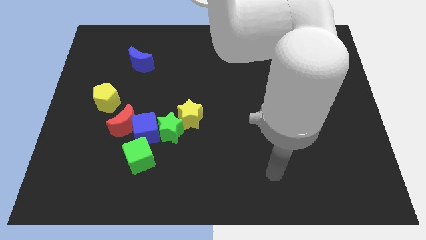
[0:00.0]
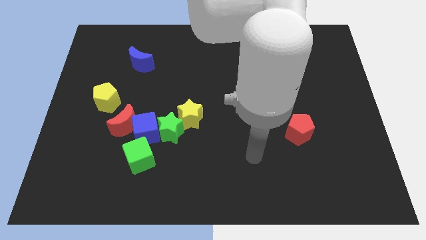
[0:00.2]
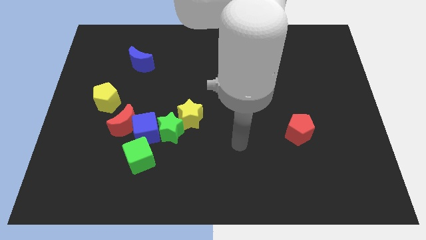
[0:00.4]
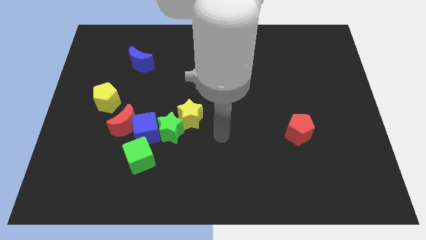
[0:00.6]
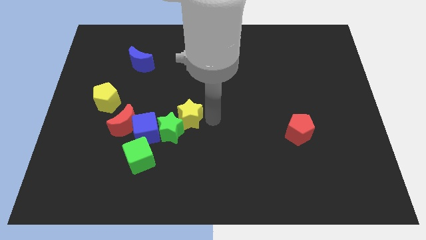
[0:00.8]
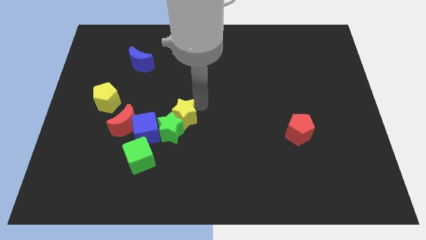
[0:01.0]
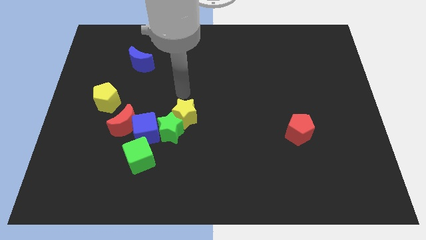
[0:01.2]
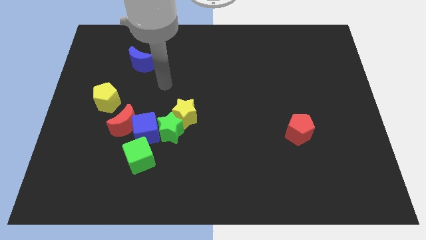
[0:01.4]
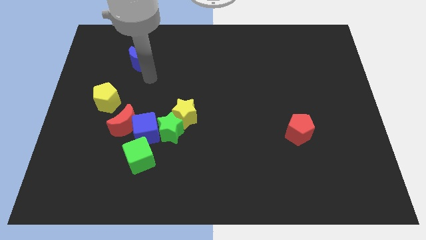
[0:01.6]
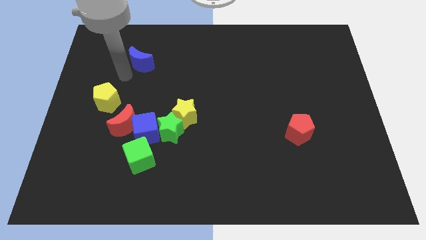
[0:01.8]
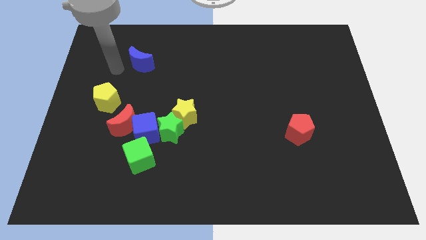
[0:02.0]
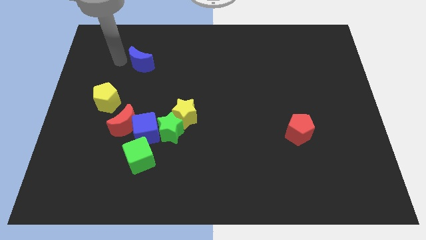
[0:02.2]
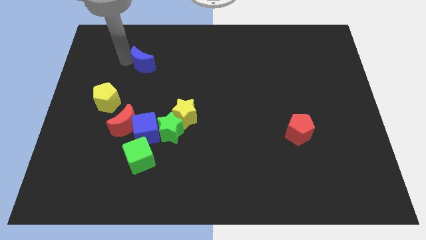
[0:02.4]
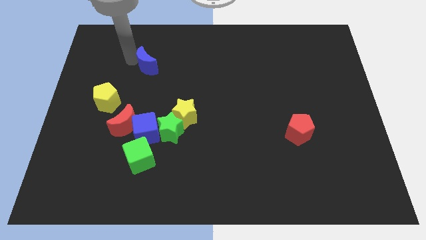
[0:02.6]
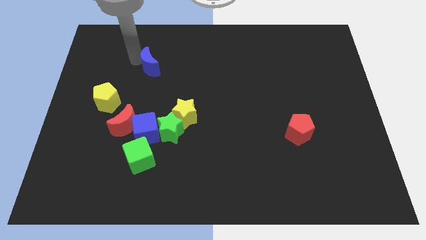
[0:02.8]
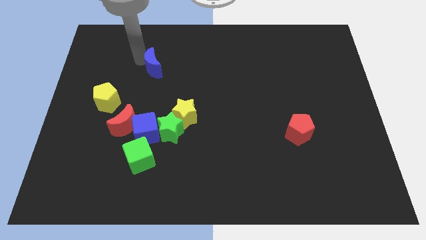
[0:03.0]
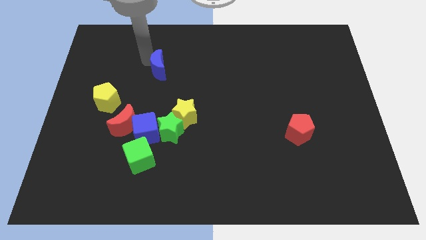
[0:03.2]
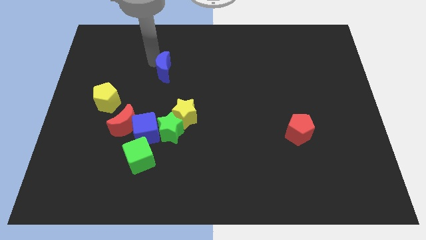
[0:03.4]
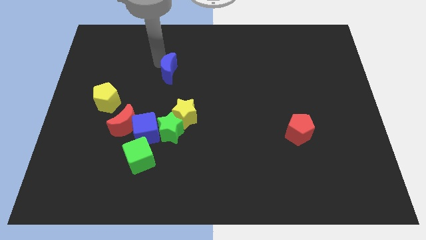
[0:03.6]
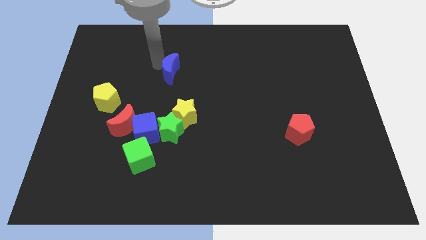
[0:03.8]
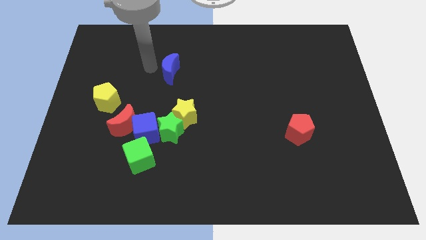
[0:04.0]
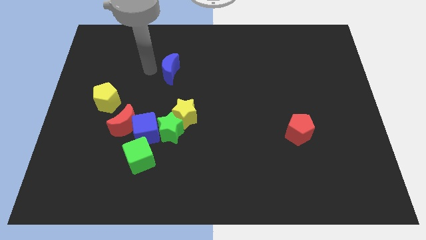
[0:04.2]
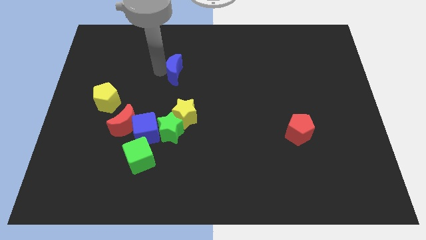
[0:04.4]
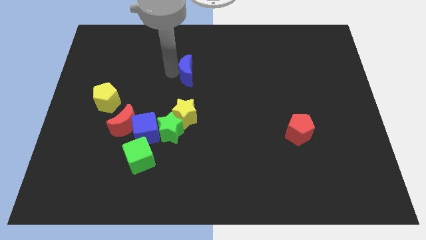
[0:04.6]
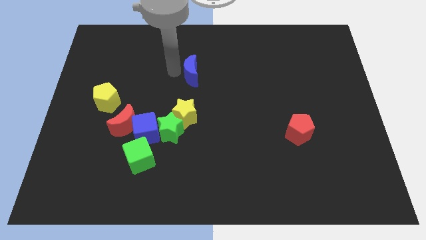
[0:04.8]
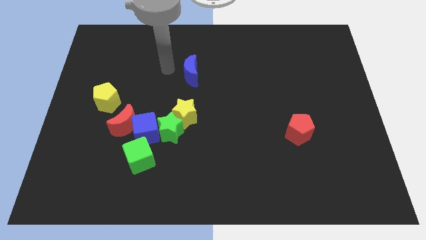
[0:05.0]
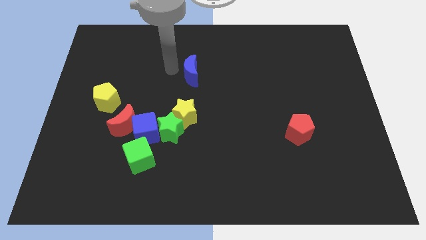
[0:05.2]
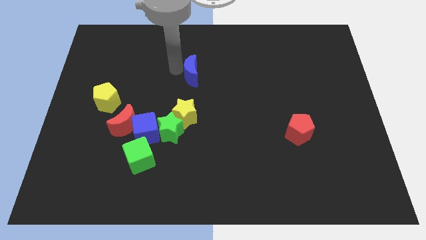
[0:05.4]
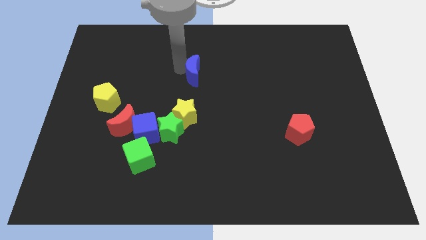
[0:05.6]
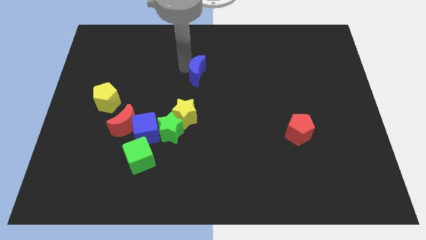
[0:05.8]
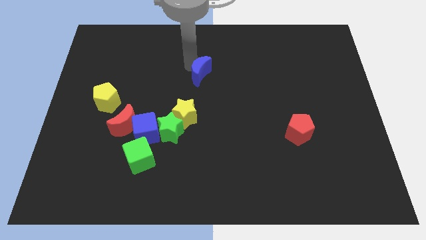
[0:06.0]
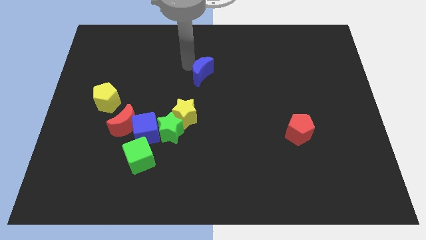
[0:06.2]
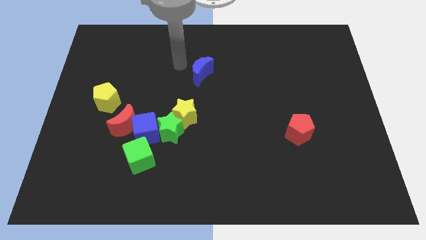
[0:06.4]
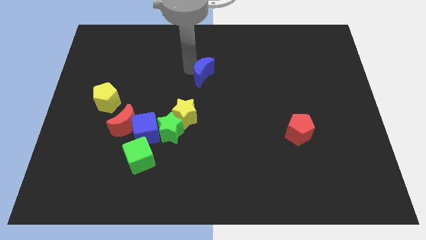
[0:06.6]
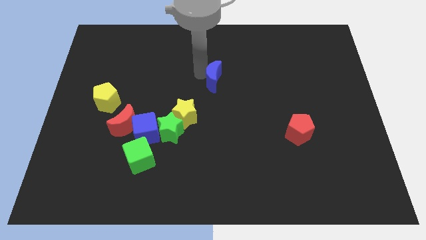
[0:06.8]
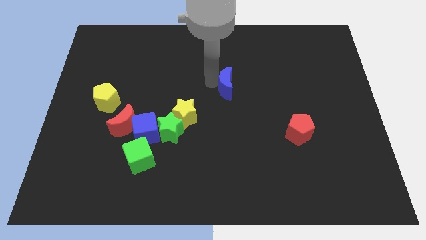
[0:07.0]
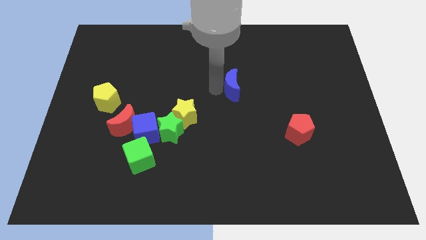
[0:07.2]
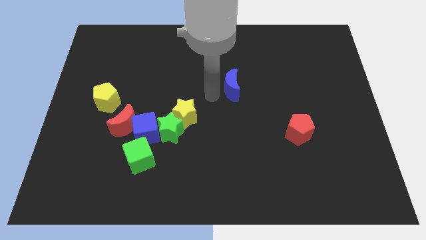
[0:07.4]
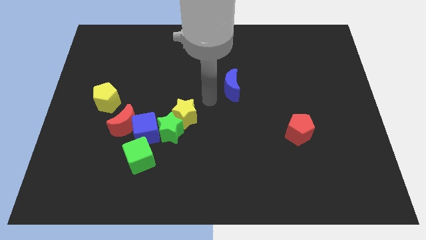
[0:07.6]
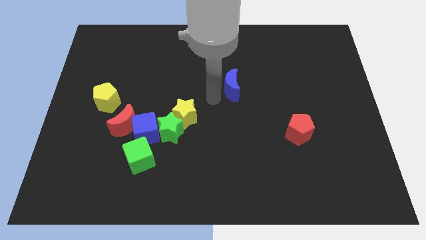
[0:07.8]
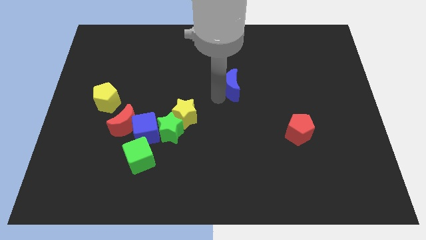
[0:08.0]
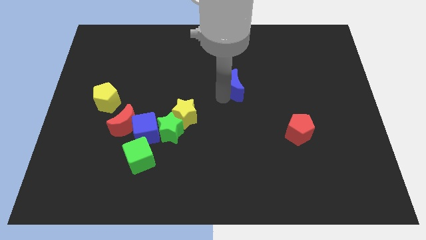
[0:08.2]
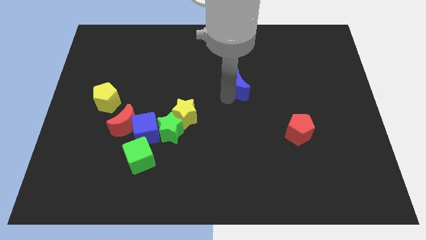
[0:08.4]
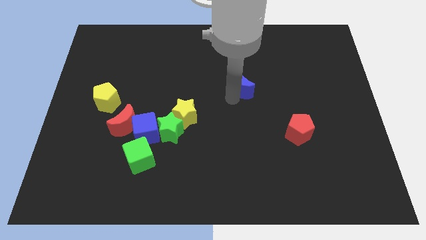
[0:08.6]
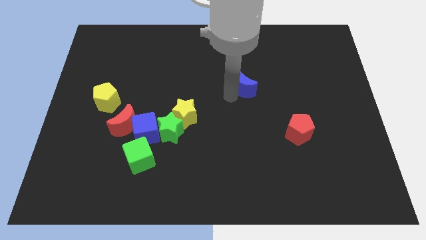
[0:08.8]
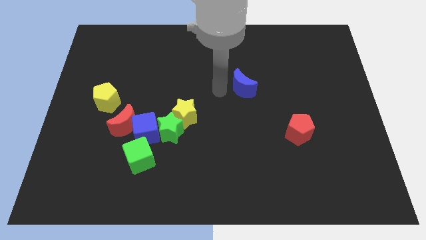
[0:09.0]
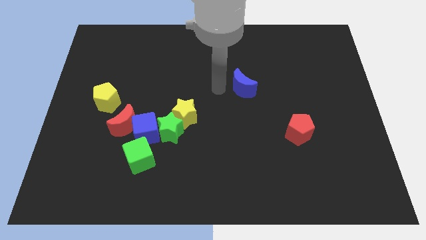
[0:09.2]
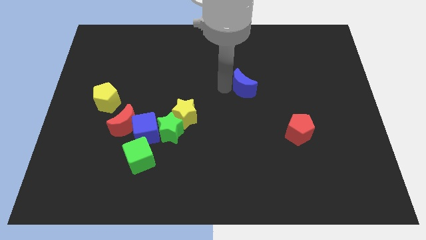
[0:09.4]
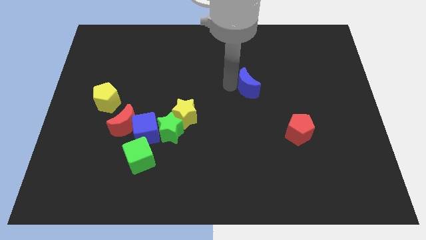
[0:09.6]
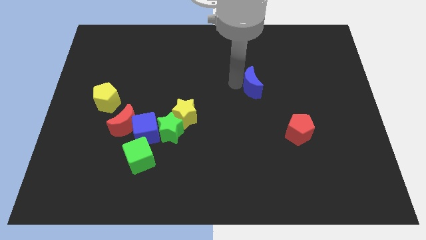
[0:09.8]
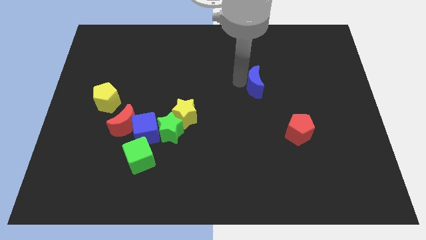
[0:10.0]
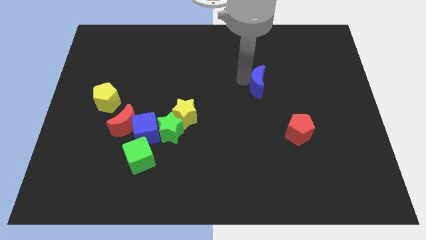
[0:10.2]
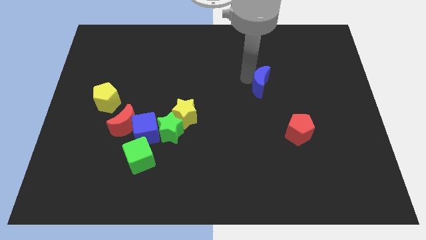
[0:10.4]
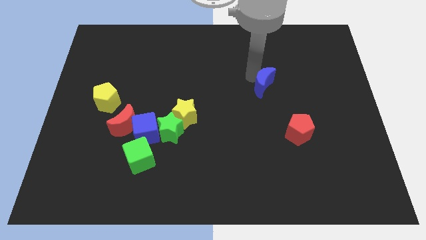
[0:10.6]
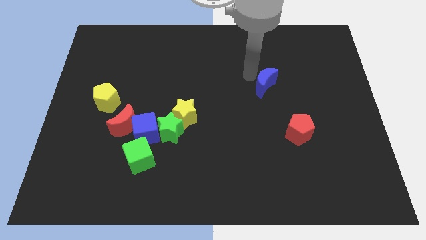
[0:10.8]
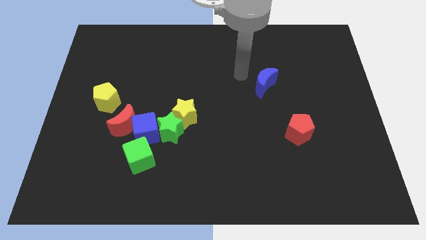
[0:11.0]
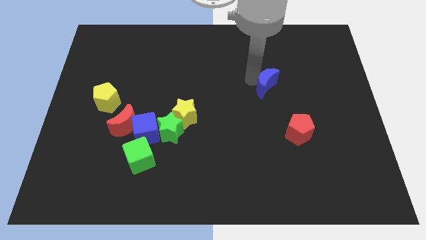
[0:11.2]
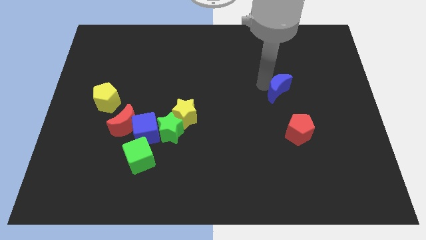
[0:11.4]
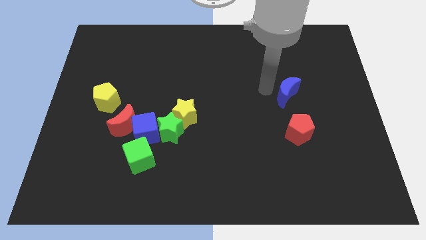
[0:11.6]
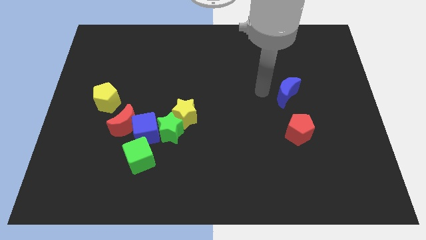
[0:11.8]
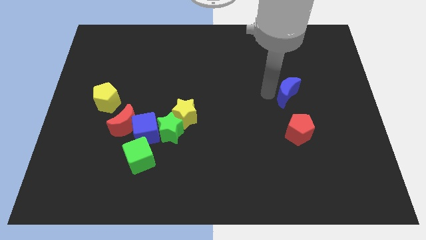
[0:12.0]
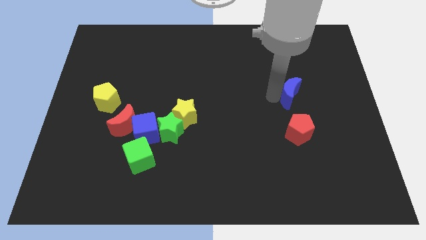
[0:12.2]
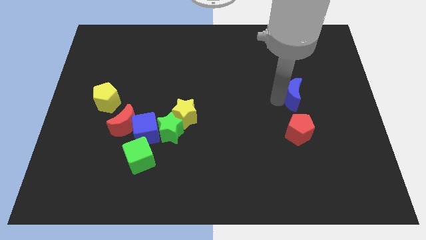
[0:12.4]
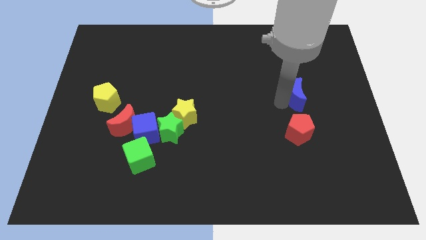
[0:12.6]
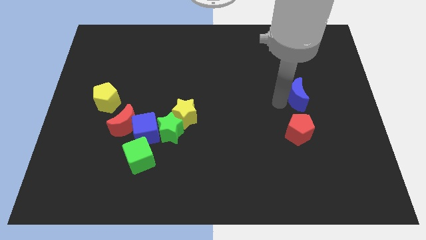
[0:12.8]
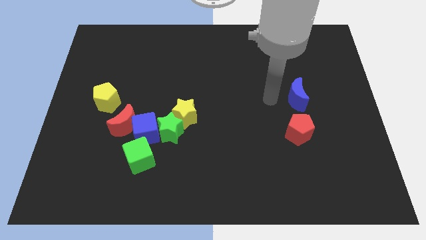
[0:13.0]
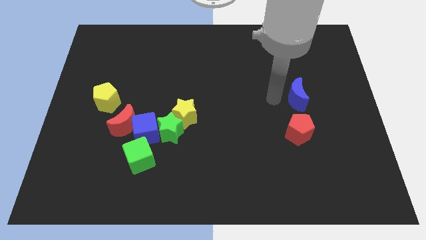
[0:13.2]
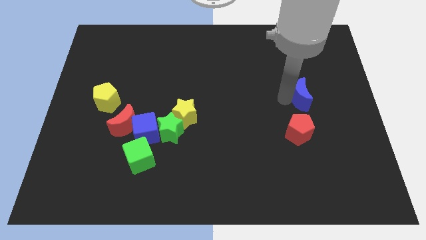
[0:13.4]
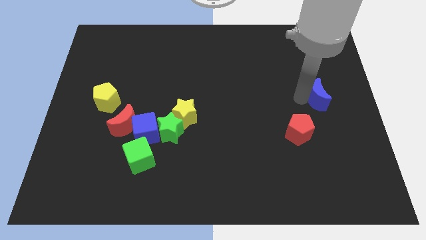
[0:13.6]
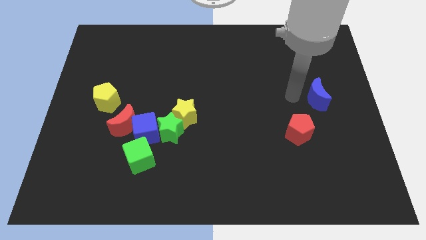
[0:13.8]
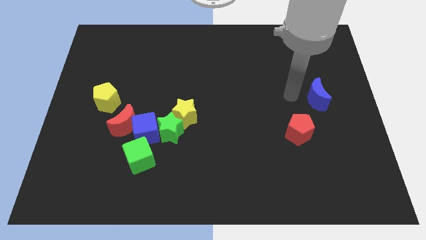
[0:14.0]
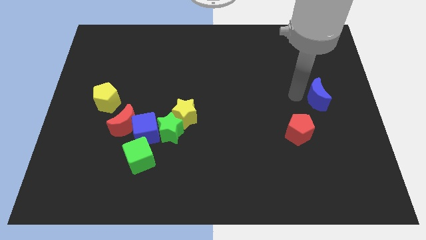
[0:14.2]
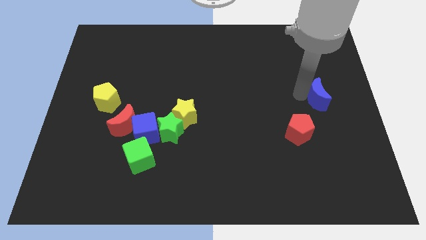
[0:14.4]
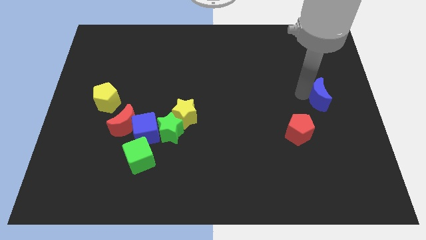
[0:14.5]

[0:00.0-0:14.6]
push the blue moon to the center right
